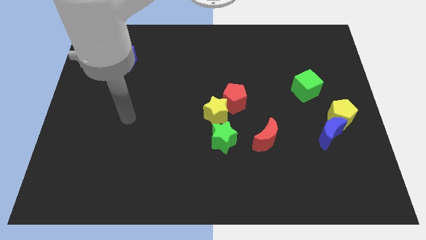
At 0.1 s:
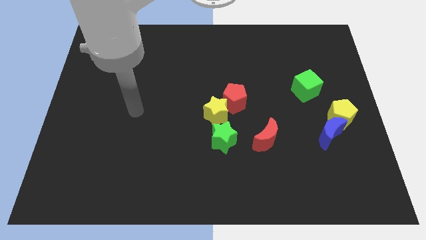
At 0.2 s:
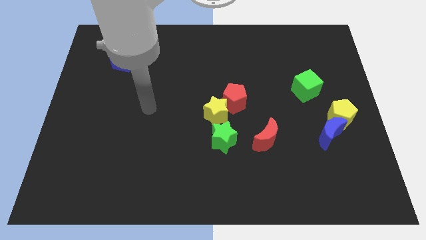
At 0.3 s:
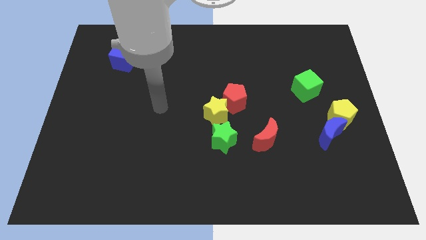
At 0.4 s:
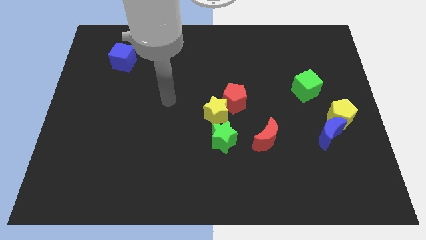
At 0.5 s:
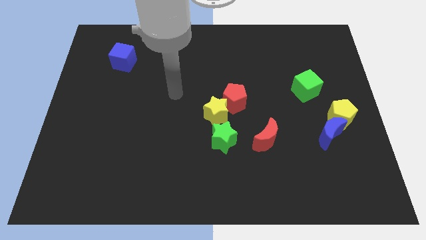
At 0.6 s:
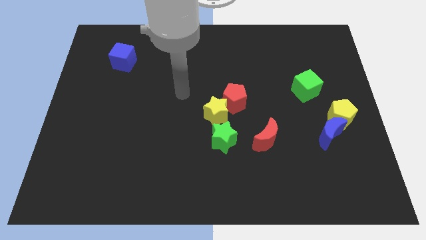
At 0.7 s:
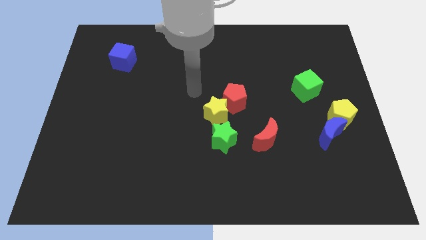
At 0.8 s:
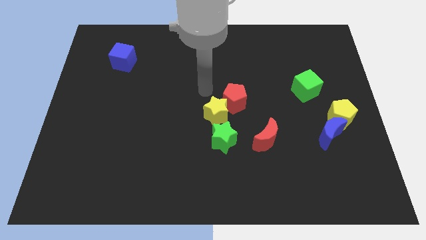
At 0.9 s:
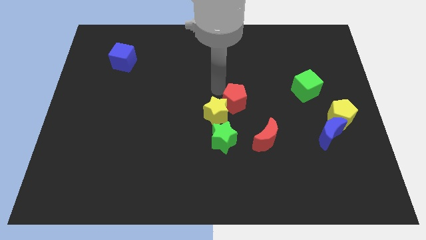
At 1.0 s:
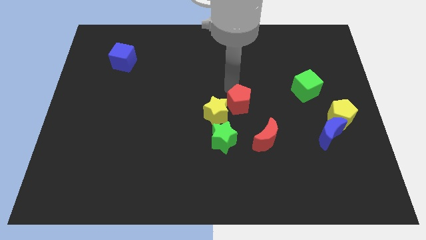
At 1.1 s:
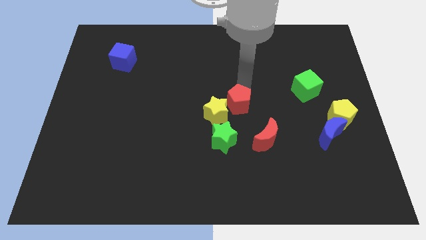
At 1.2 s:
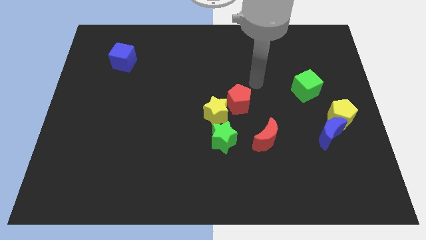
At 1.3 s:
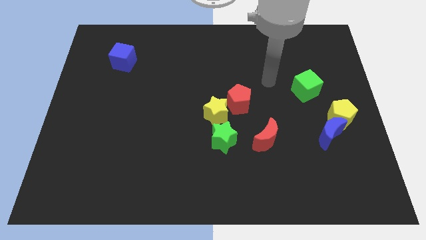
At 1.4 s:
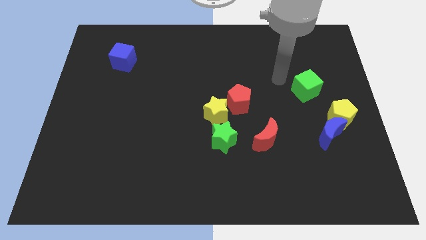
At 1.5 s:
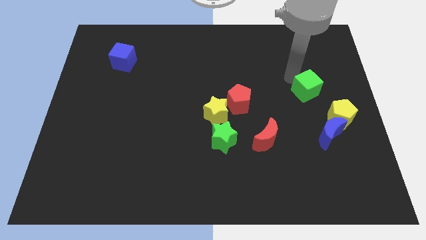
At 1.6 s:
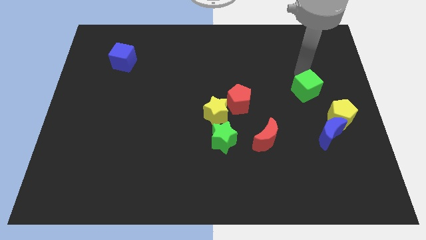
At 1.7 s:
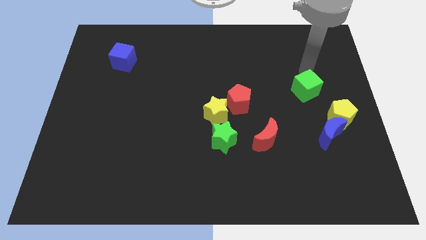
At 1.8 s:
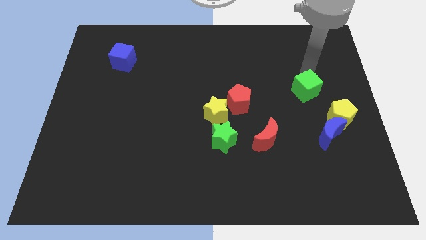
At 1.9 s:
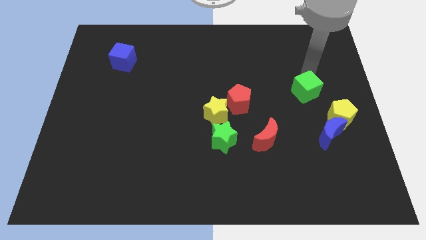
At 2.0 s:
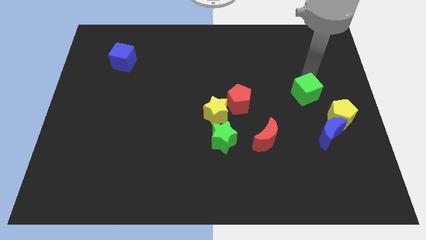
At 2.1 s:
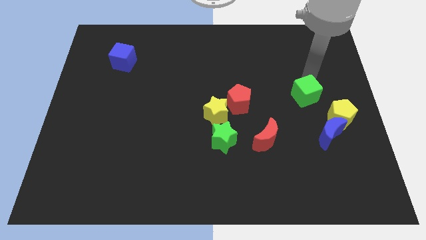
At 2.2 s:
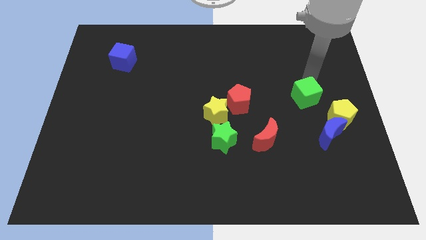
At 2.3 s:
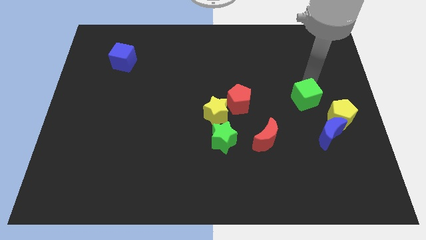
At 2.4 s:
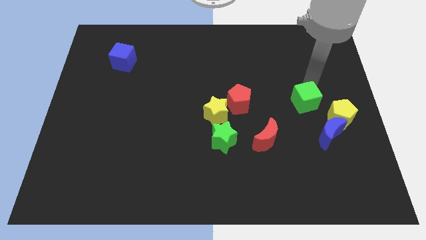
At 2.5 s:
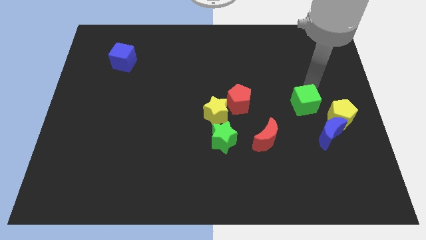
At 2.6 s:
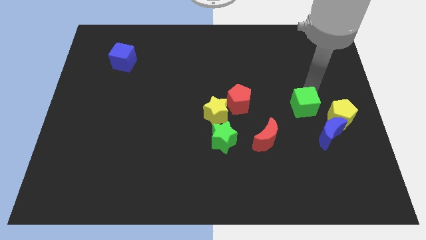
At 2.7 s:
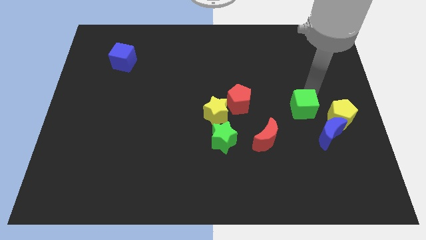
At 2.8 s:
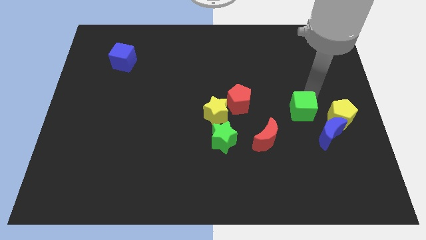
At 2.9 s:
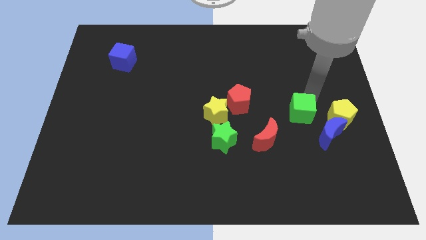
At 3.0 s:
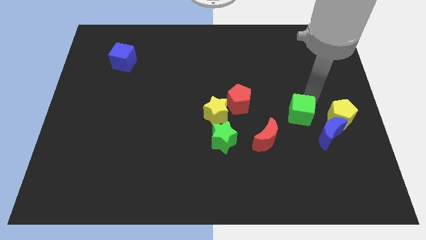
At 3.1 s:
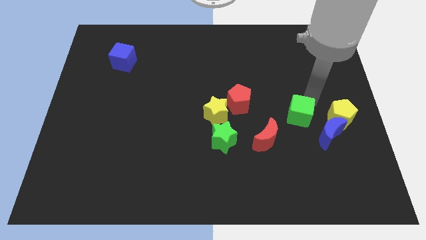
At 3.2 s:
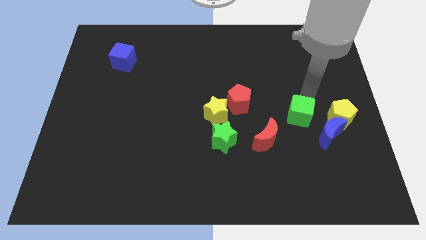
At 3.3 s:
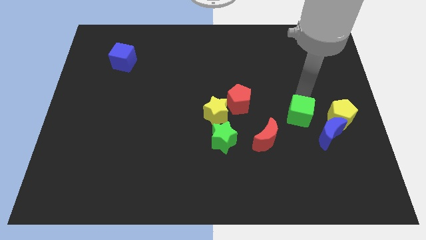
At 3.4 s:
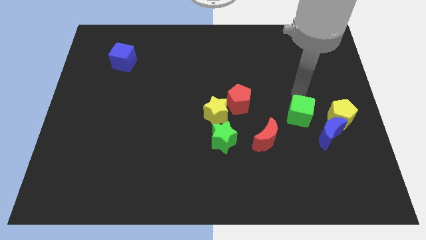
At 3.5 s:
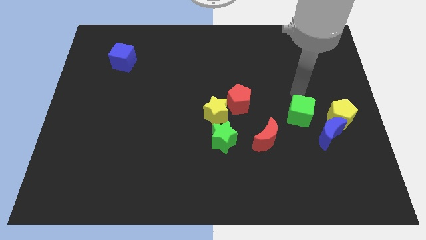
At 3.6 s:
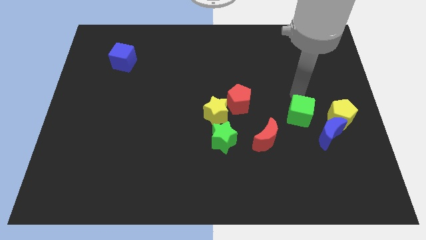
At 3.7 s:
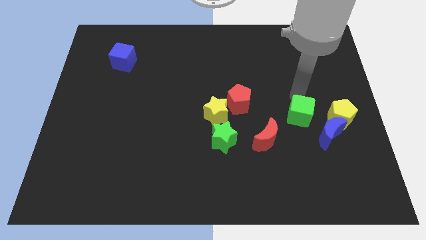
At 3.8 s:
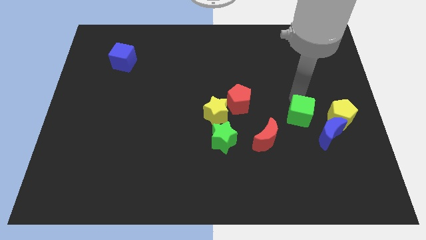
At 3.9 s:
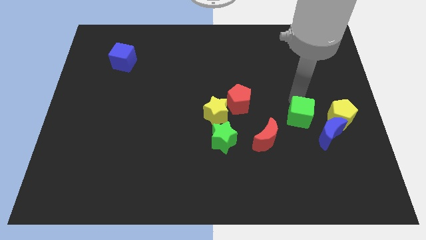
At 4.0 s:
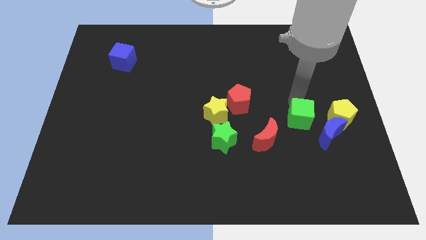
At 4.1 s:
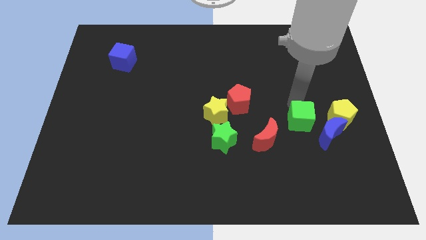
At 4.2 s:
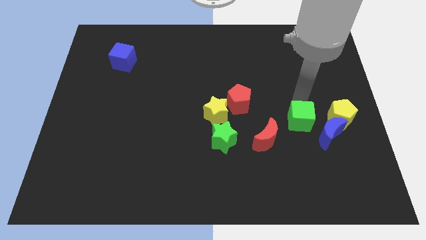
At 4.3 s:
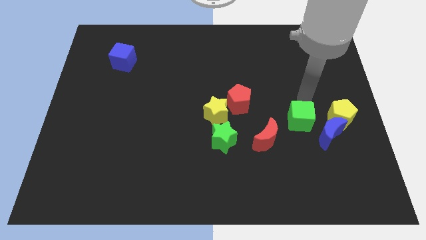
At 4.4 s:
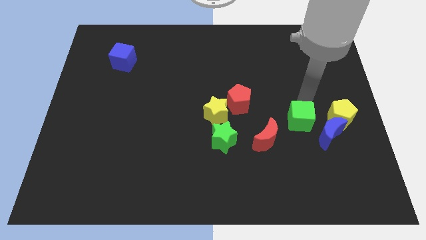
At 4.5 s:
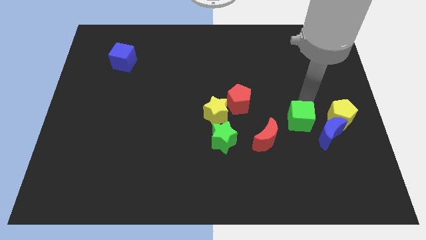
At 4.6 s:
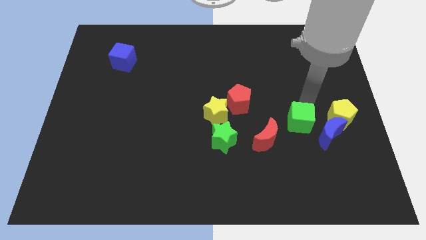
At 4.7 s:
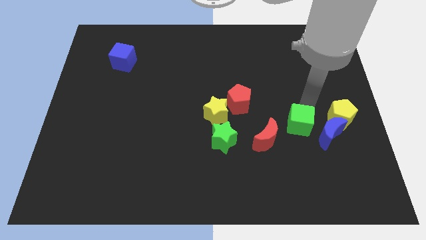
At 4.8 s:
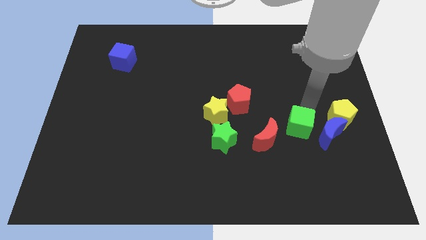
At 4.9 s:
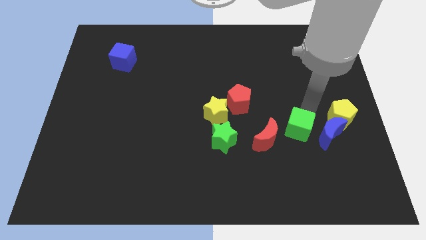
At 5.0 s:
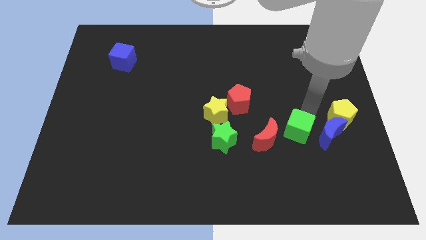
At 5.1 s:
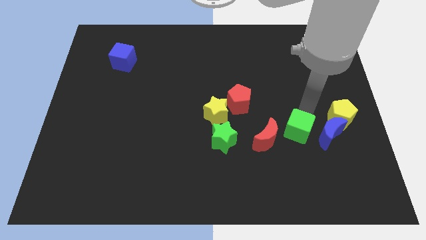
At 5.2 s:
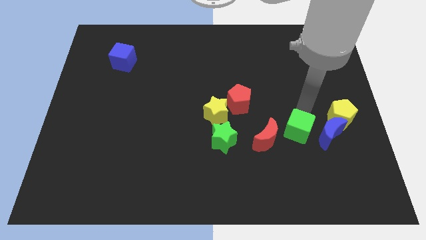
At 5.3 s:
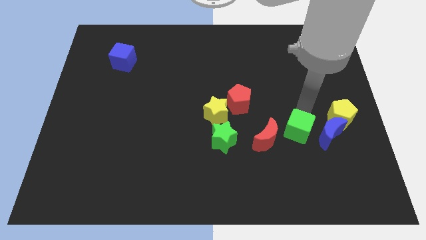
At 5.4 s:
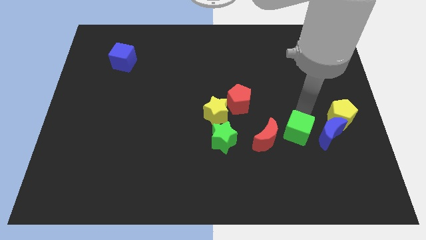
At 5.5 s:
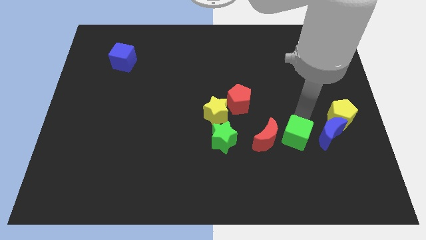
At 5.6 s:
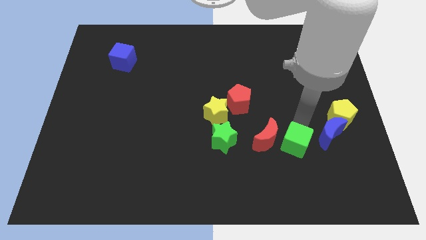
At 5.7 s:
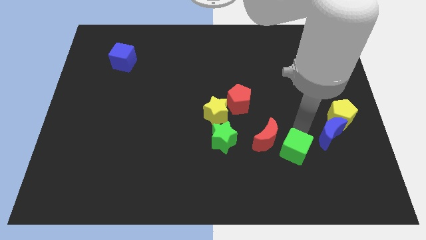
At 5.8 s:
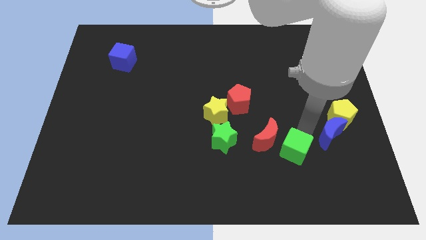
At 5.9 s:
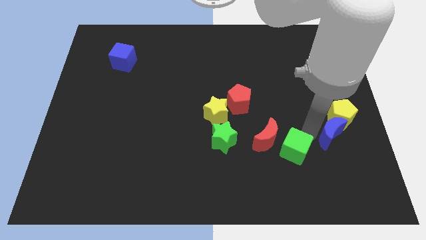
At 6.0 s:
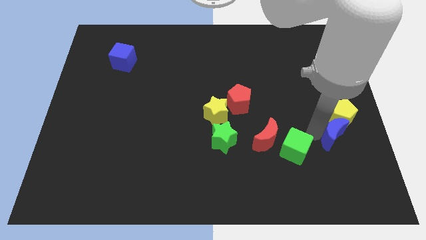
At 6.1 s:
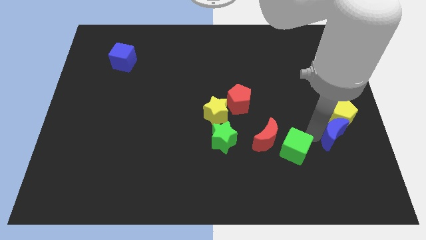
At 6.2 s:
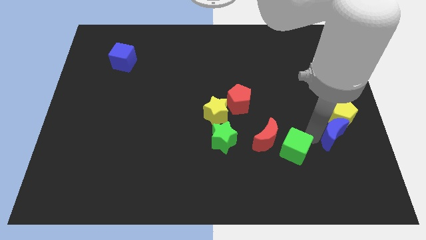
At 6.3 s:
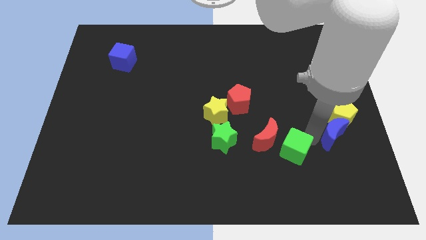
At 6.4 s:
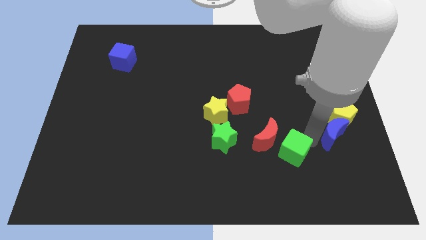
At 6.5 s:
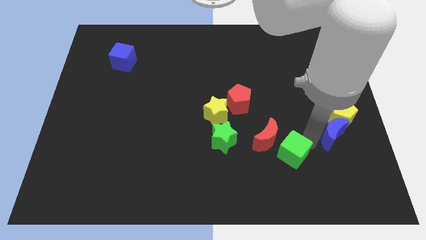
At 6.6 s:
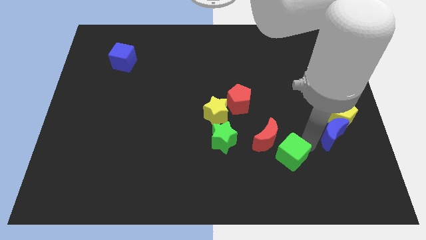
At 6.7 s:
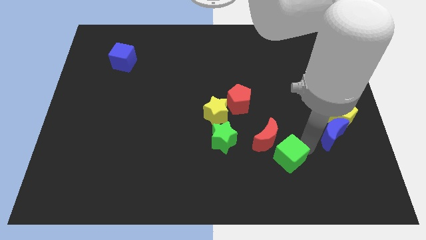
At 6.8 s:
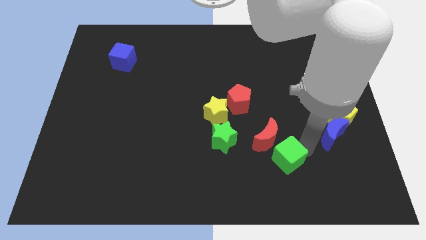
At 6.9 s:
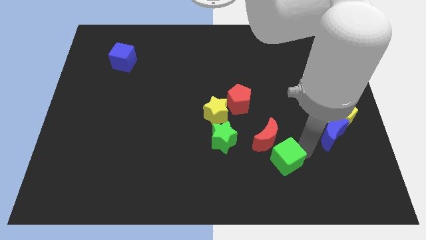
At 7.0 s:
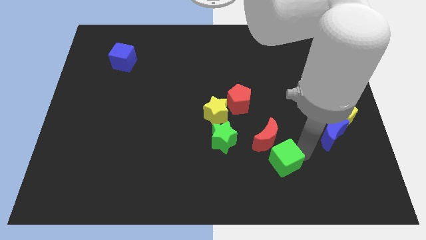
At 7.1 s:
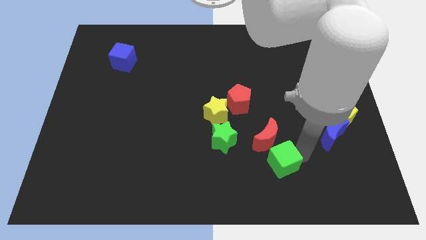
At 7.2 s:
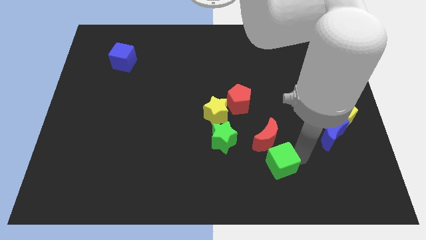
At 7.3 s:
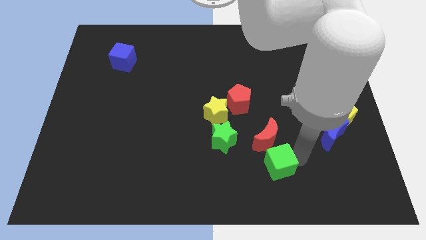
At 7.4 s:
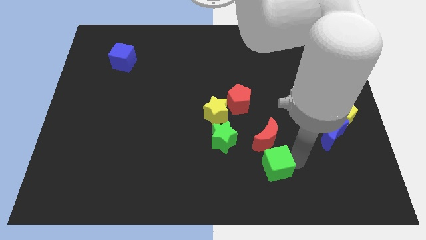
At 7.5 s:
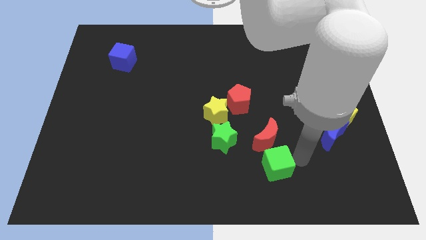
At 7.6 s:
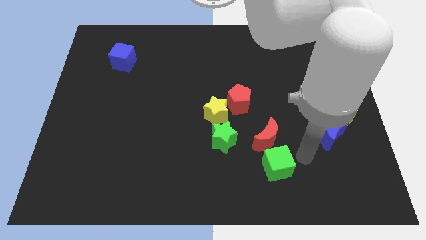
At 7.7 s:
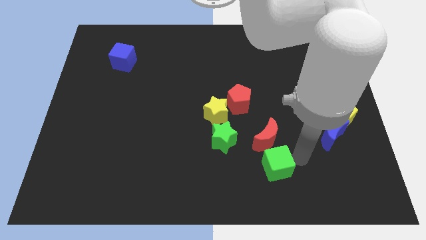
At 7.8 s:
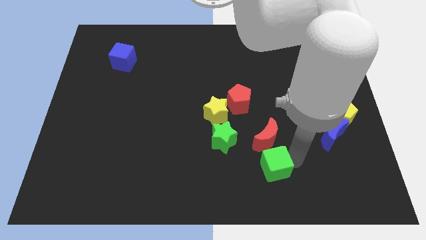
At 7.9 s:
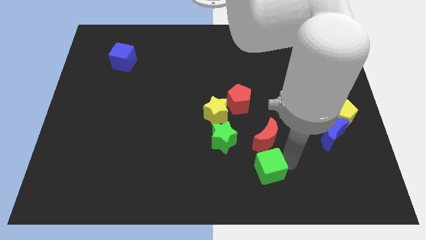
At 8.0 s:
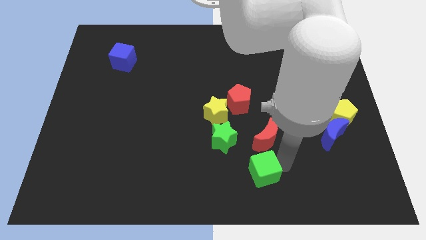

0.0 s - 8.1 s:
move the green cube to the bottom side
